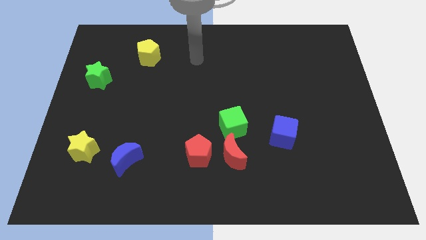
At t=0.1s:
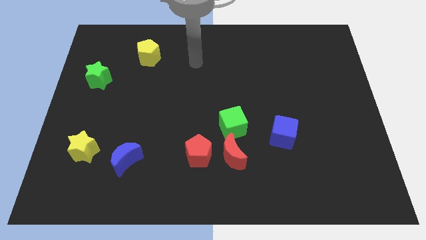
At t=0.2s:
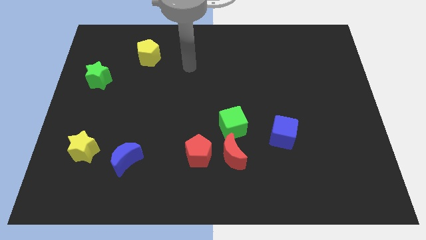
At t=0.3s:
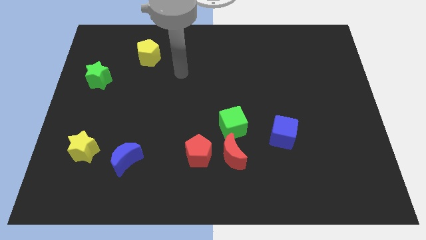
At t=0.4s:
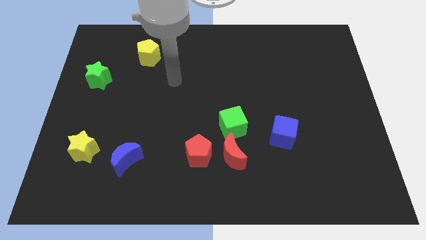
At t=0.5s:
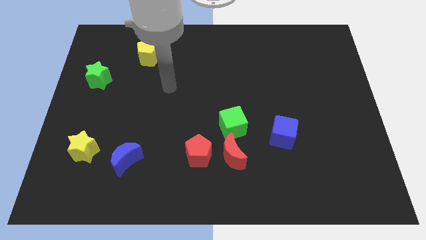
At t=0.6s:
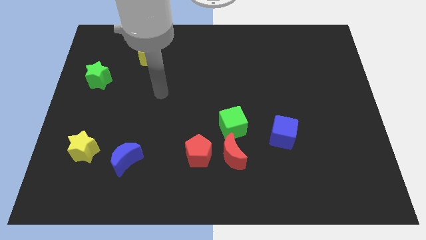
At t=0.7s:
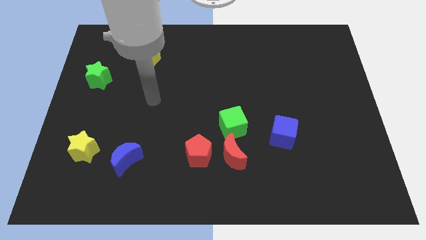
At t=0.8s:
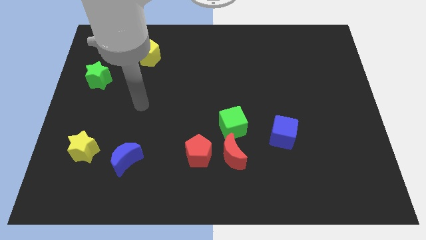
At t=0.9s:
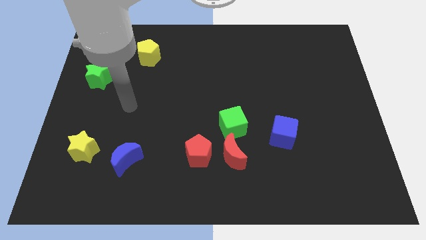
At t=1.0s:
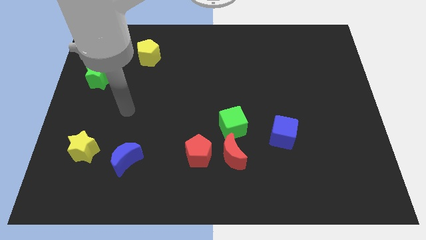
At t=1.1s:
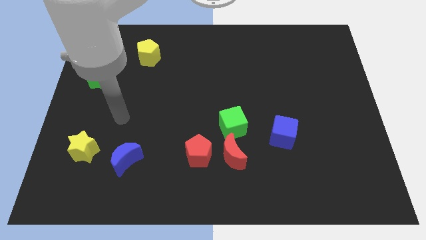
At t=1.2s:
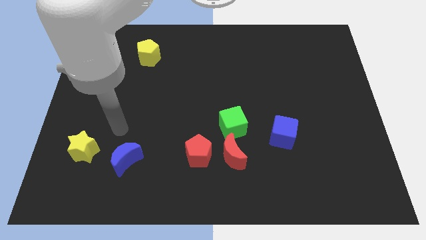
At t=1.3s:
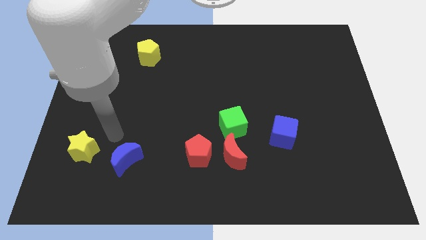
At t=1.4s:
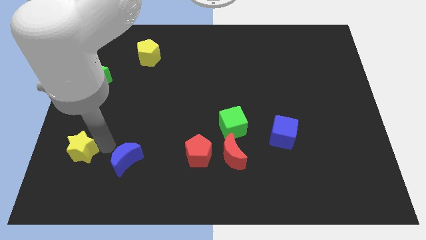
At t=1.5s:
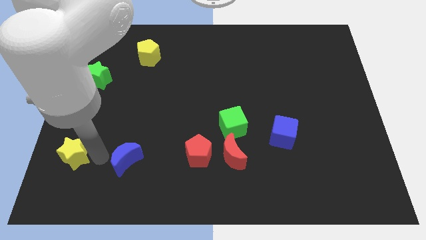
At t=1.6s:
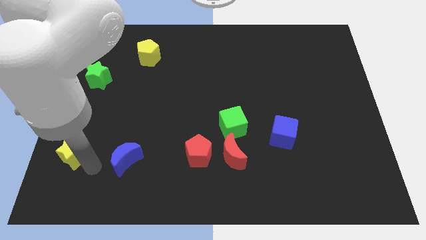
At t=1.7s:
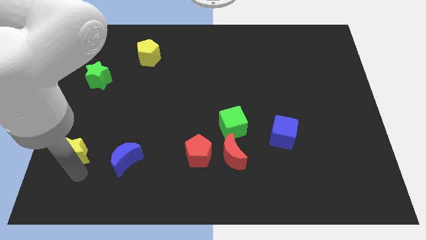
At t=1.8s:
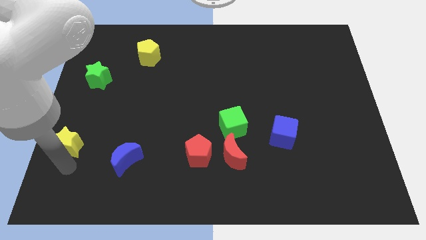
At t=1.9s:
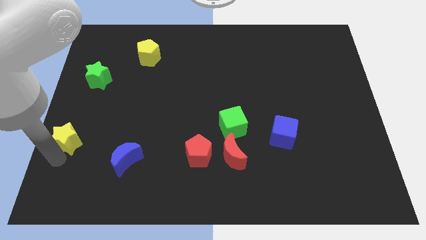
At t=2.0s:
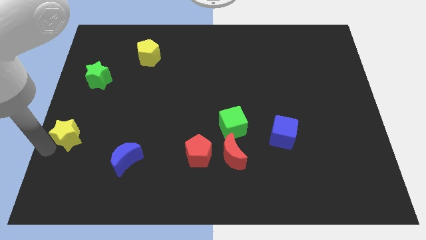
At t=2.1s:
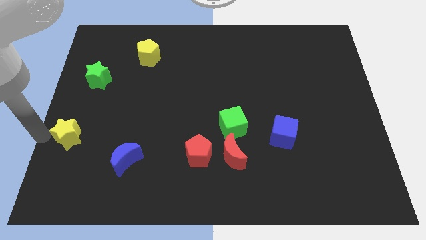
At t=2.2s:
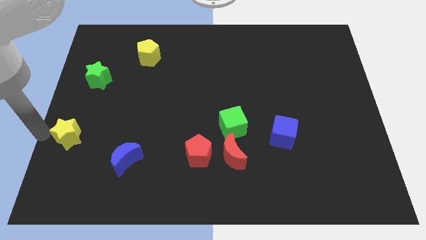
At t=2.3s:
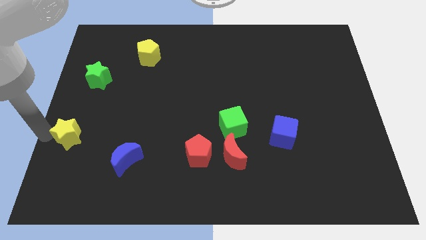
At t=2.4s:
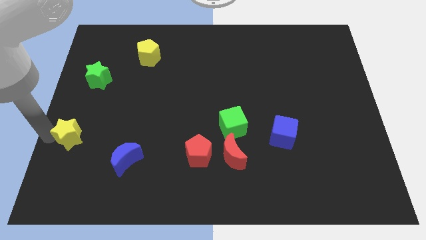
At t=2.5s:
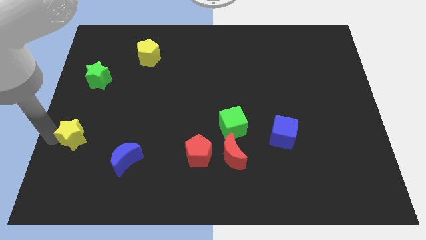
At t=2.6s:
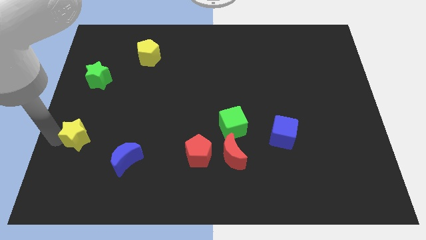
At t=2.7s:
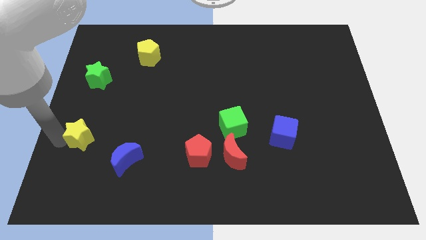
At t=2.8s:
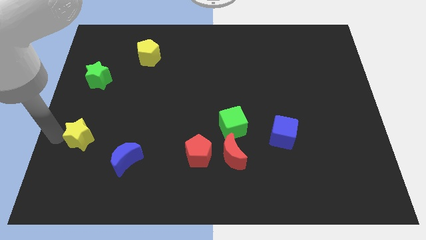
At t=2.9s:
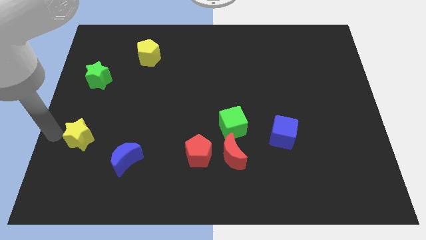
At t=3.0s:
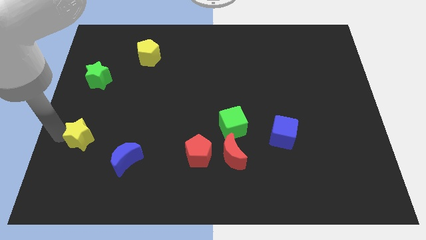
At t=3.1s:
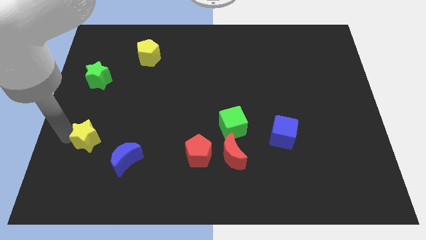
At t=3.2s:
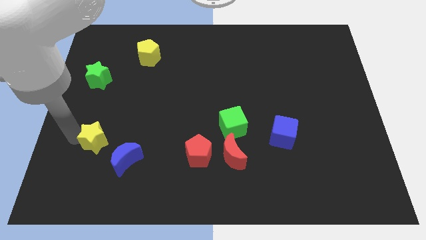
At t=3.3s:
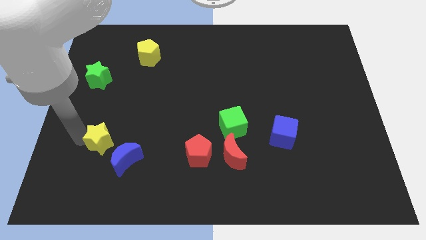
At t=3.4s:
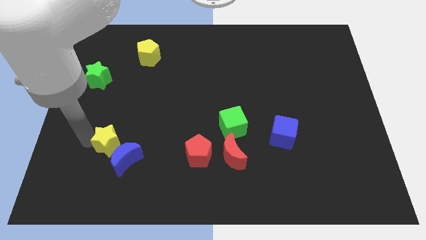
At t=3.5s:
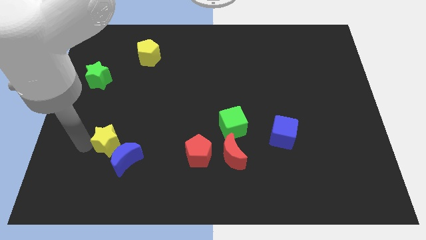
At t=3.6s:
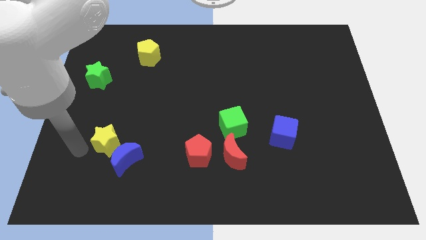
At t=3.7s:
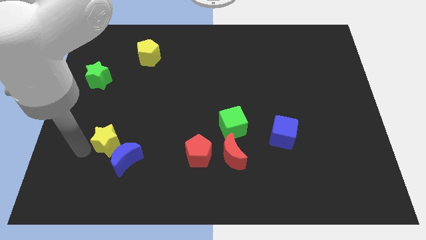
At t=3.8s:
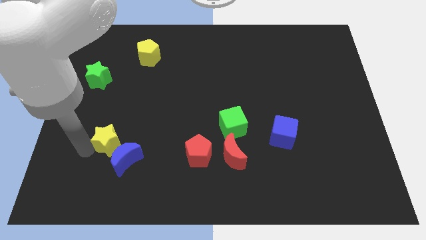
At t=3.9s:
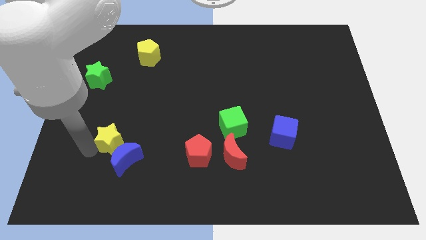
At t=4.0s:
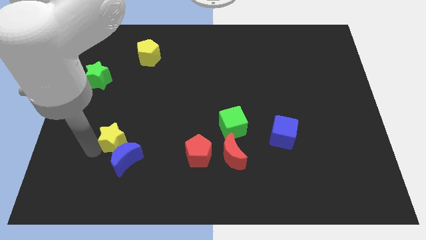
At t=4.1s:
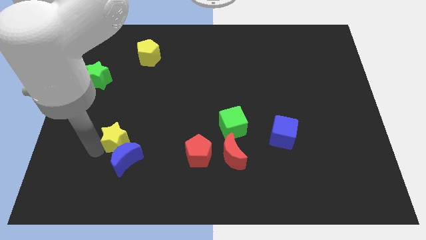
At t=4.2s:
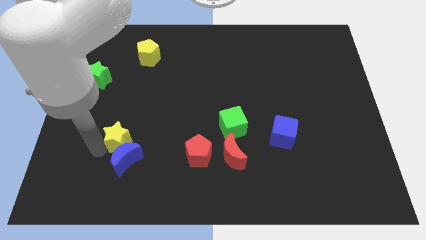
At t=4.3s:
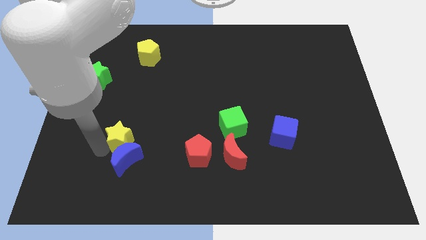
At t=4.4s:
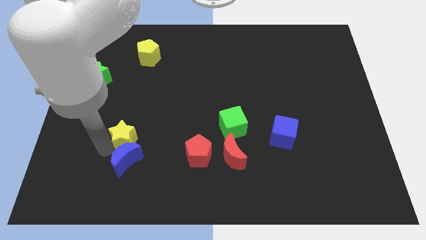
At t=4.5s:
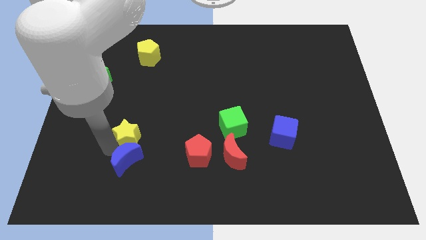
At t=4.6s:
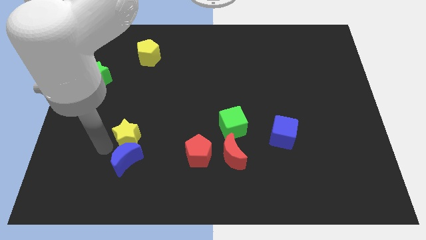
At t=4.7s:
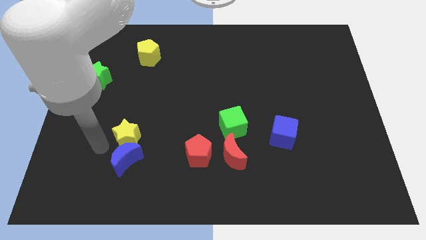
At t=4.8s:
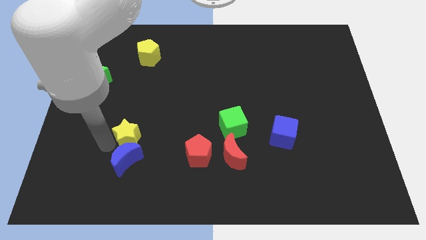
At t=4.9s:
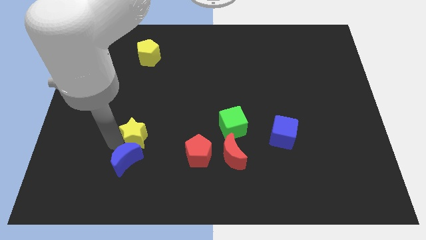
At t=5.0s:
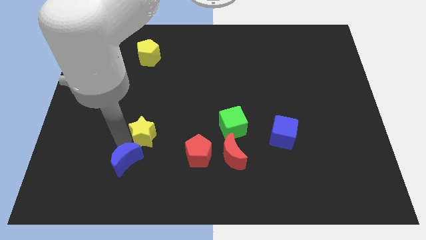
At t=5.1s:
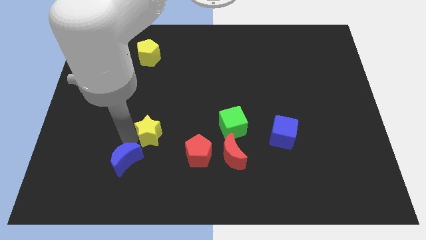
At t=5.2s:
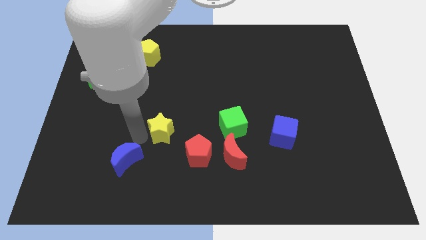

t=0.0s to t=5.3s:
move the yellow star just left of the green cube
